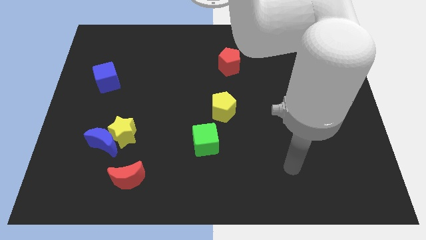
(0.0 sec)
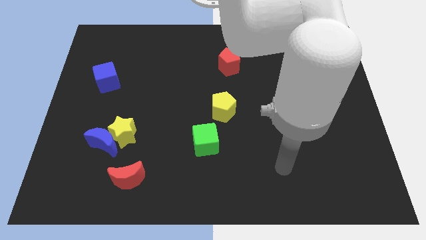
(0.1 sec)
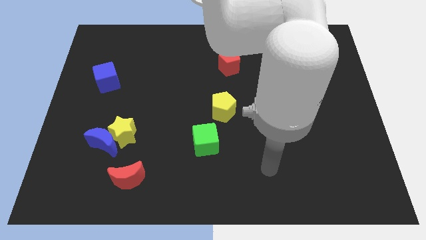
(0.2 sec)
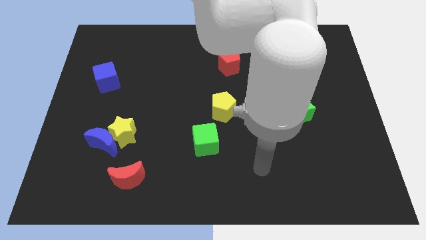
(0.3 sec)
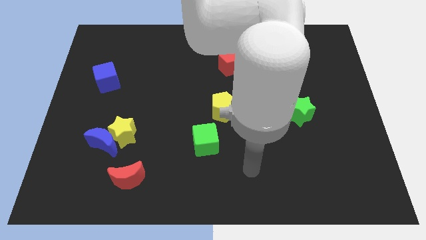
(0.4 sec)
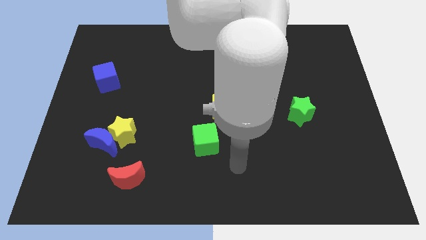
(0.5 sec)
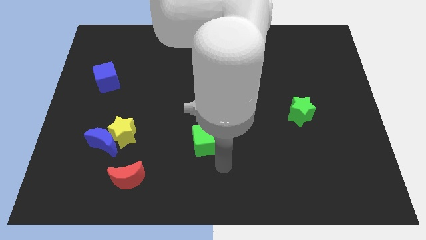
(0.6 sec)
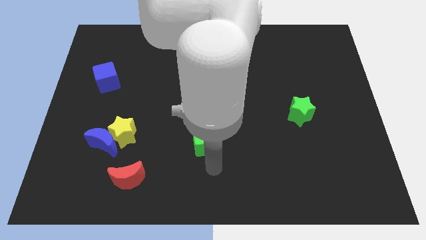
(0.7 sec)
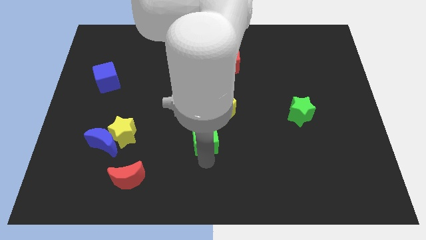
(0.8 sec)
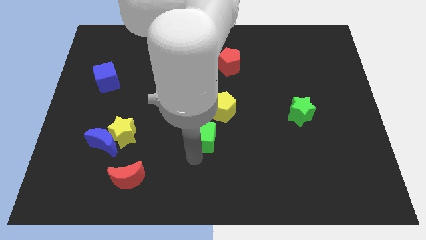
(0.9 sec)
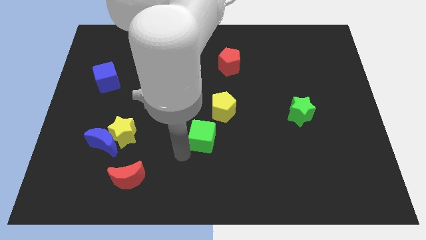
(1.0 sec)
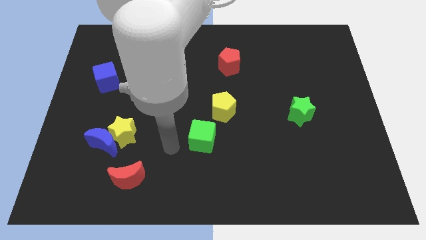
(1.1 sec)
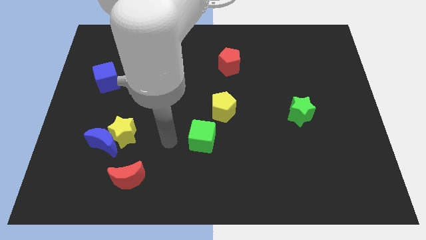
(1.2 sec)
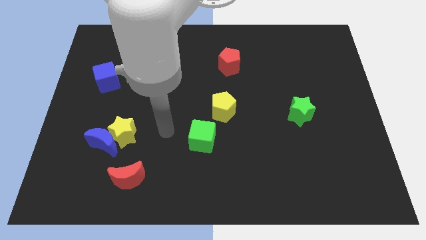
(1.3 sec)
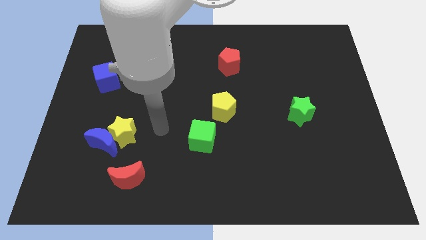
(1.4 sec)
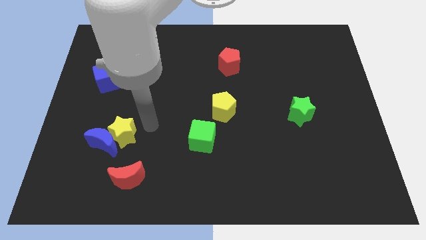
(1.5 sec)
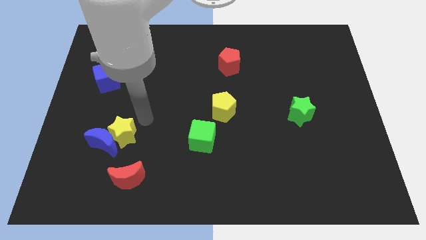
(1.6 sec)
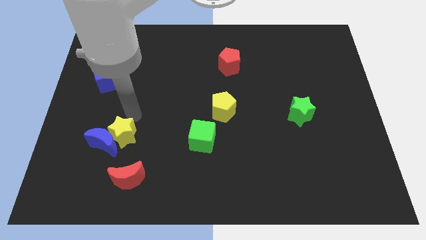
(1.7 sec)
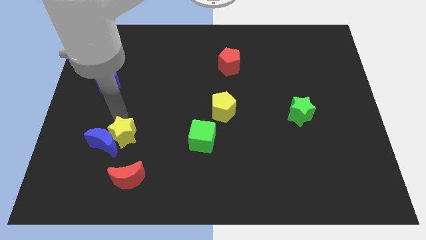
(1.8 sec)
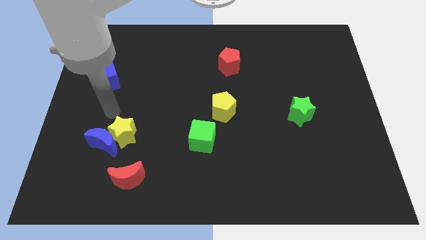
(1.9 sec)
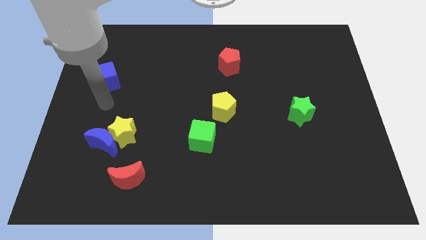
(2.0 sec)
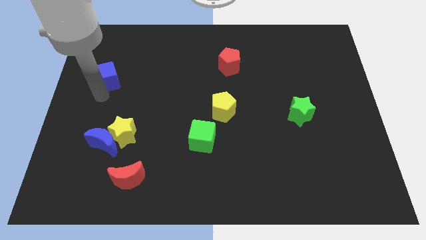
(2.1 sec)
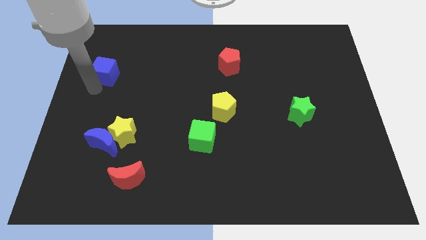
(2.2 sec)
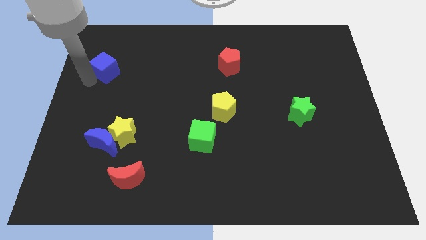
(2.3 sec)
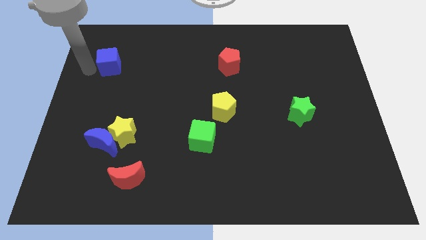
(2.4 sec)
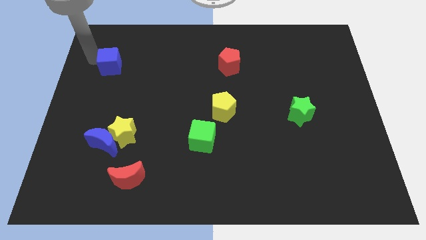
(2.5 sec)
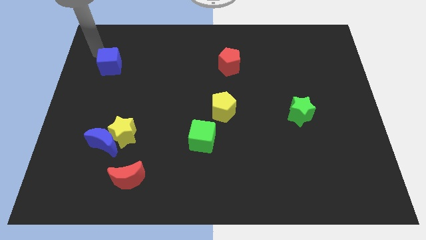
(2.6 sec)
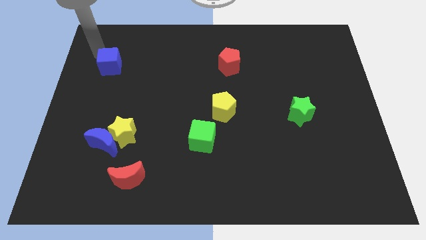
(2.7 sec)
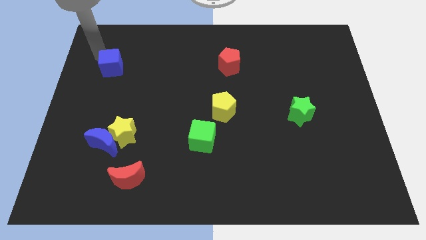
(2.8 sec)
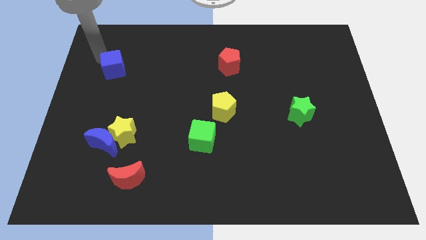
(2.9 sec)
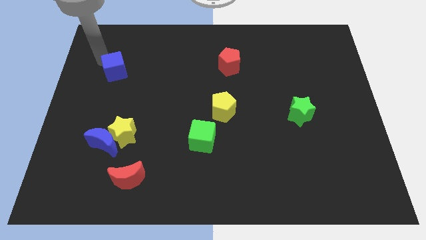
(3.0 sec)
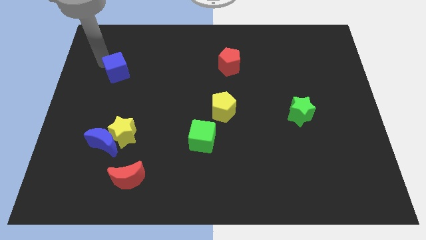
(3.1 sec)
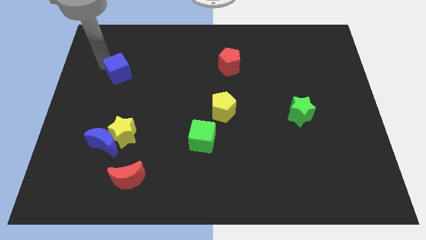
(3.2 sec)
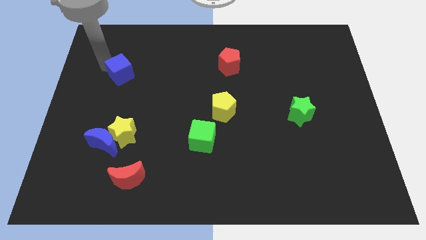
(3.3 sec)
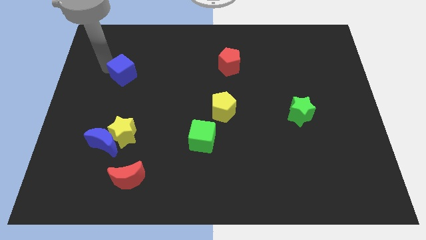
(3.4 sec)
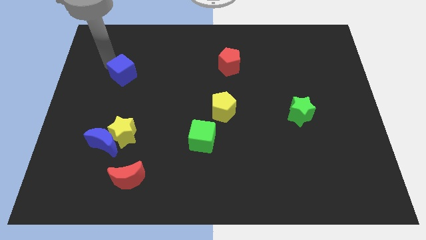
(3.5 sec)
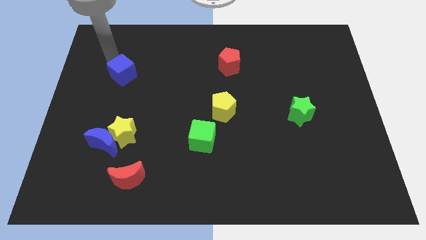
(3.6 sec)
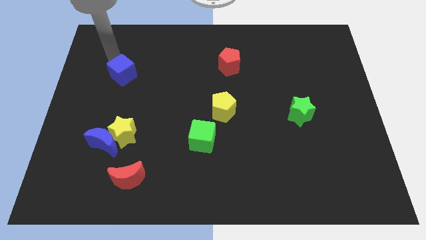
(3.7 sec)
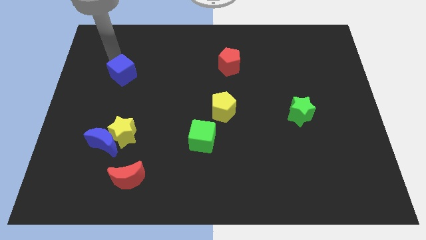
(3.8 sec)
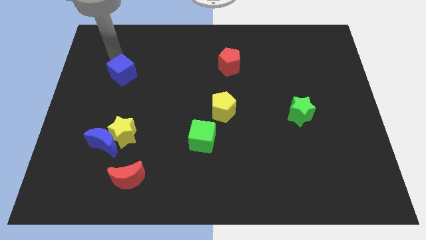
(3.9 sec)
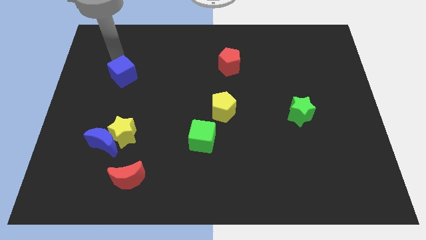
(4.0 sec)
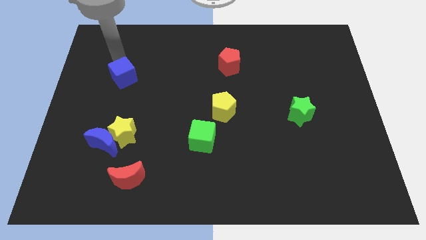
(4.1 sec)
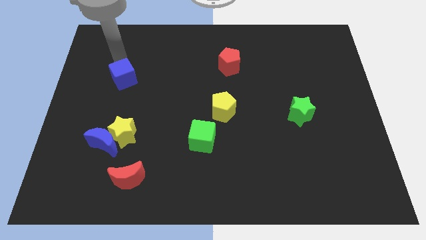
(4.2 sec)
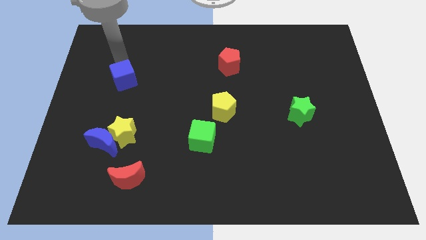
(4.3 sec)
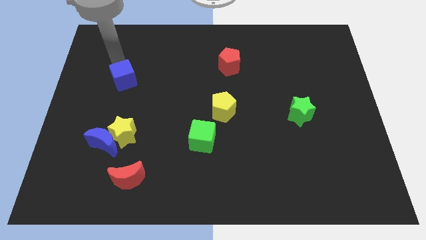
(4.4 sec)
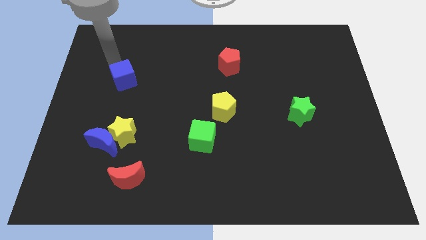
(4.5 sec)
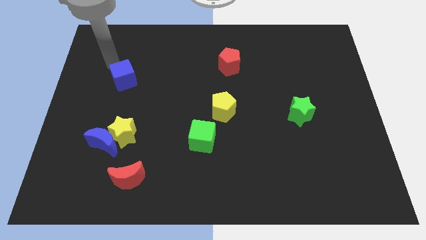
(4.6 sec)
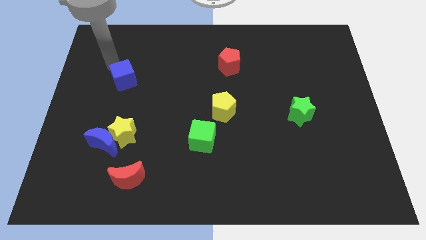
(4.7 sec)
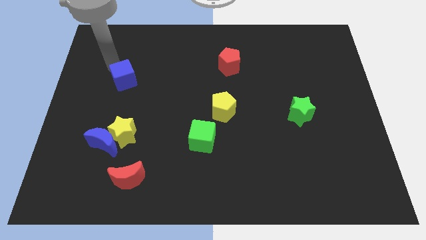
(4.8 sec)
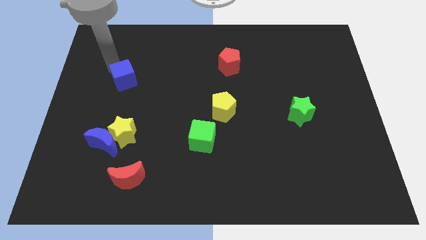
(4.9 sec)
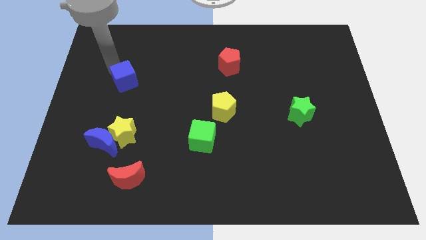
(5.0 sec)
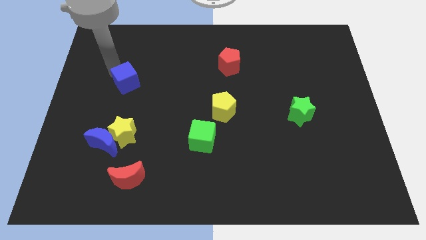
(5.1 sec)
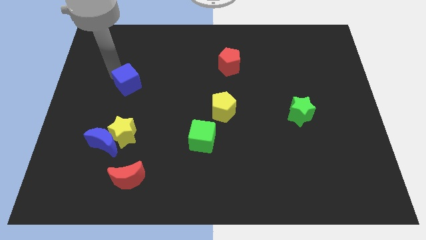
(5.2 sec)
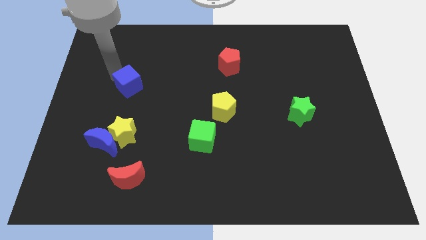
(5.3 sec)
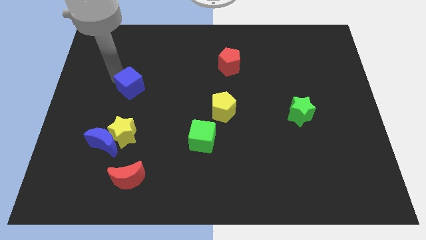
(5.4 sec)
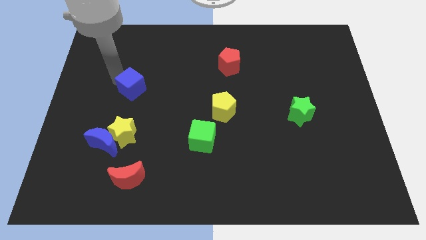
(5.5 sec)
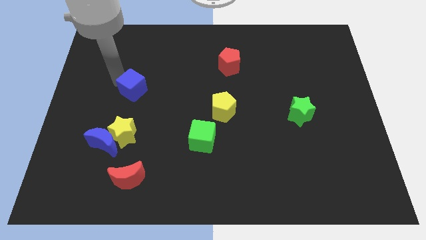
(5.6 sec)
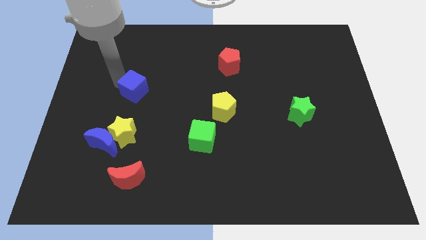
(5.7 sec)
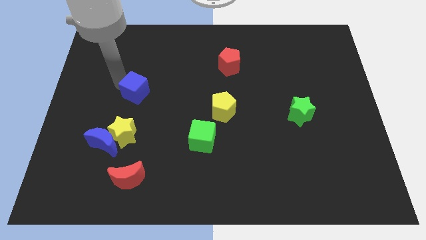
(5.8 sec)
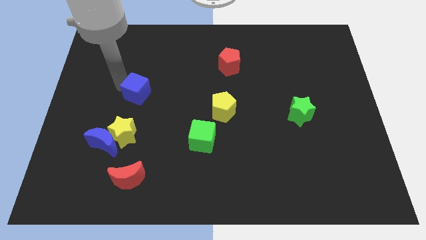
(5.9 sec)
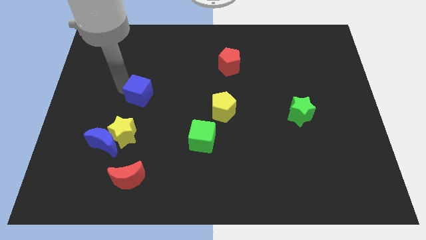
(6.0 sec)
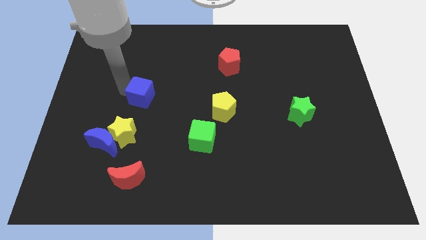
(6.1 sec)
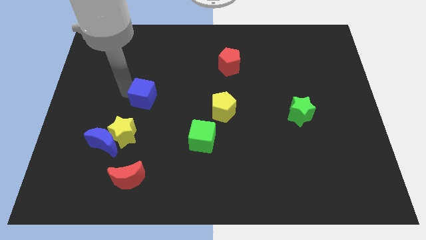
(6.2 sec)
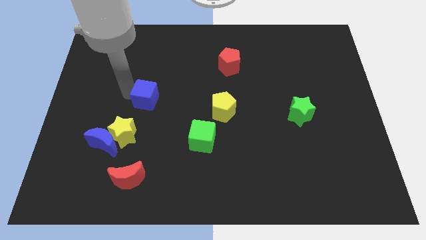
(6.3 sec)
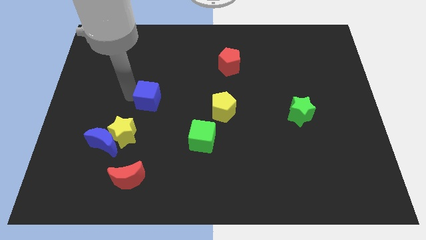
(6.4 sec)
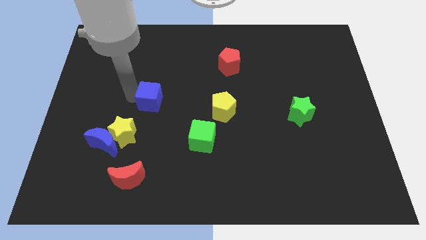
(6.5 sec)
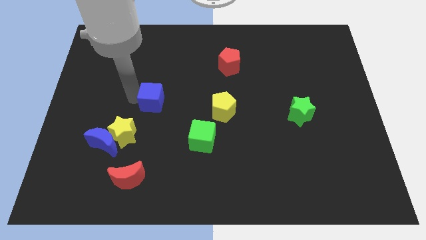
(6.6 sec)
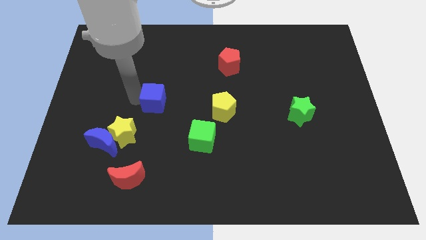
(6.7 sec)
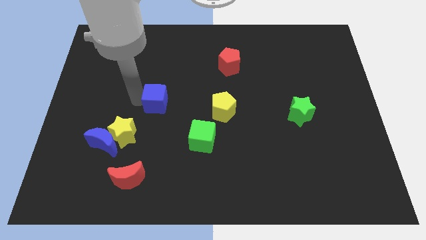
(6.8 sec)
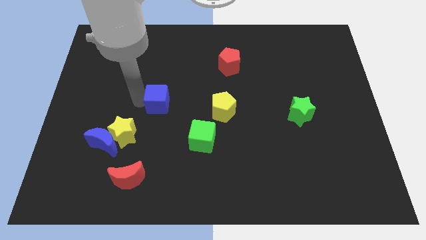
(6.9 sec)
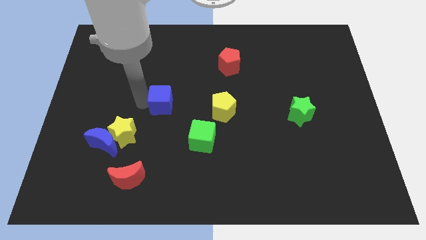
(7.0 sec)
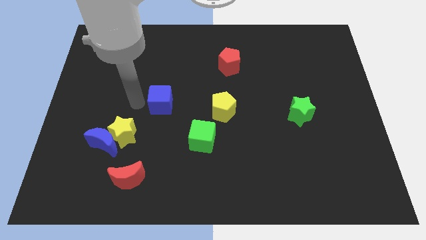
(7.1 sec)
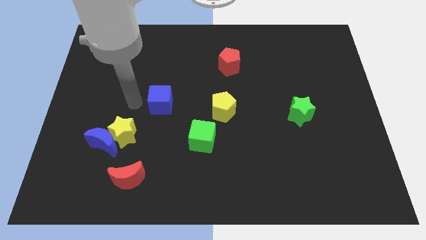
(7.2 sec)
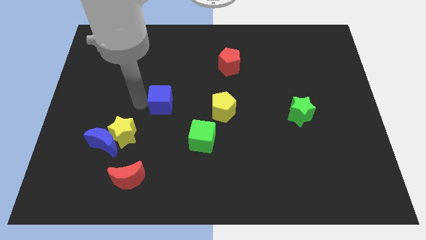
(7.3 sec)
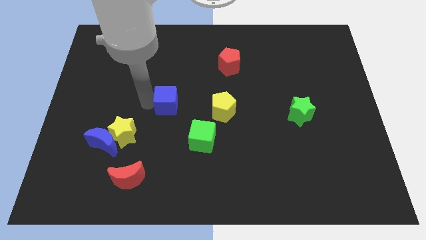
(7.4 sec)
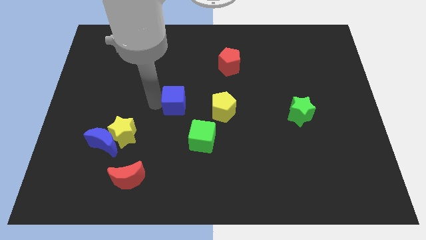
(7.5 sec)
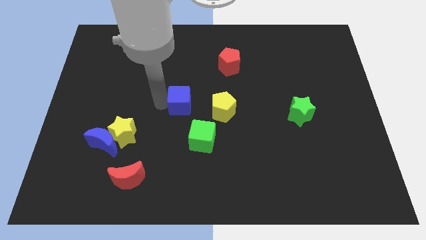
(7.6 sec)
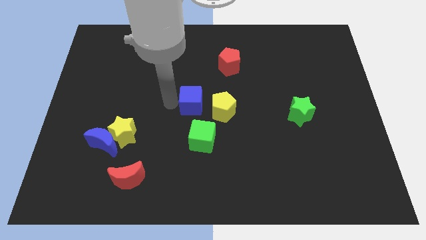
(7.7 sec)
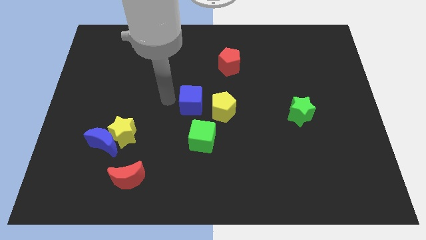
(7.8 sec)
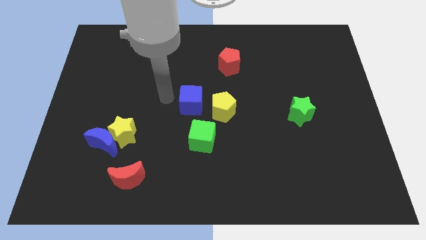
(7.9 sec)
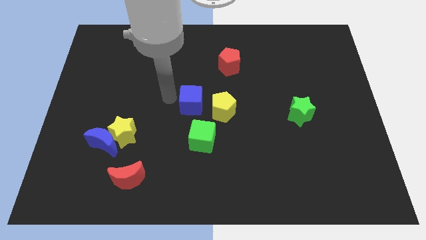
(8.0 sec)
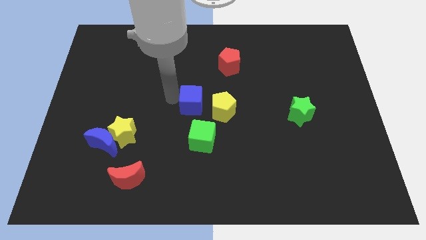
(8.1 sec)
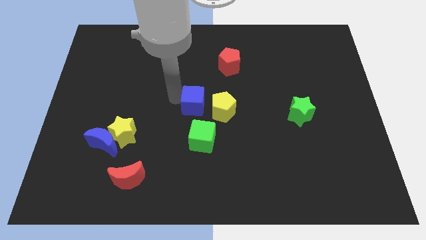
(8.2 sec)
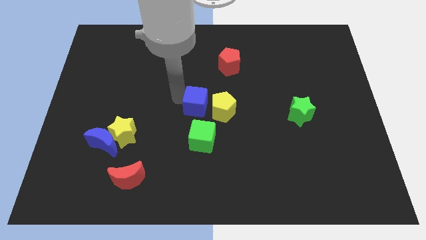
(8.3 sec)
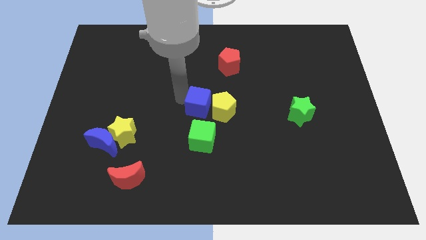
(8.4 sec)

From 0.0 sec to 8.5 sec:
push the blue cube next to the yellow pentagon
